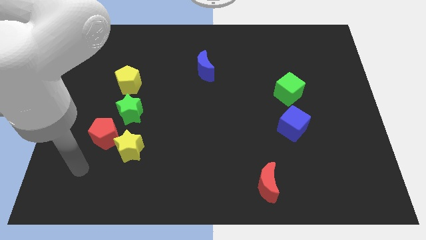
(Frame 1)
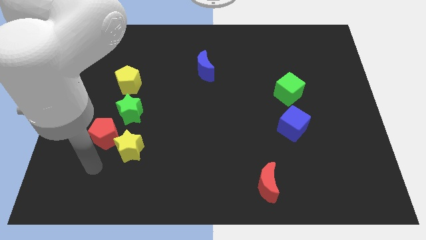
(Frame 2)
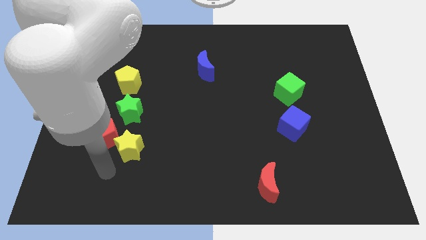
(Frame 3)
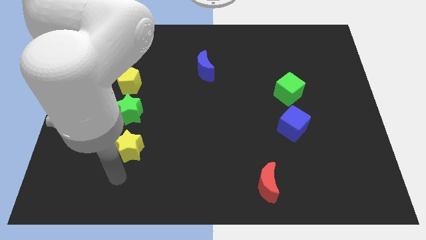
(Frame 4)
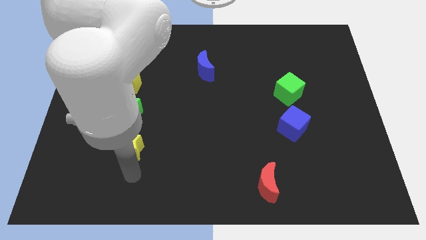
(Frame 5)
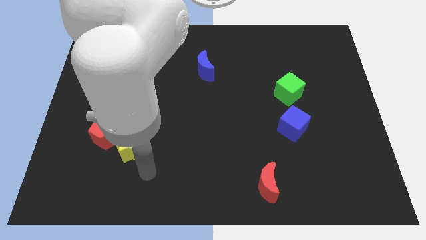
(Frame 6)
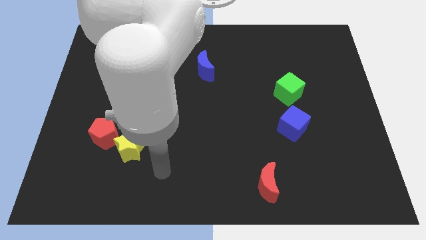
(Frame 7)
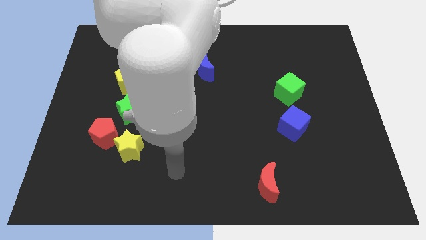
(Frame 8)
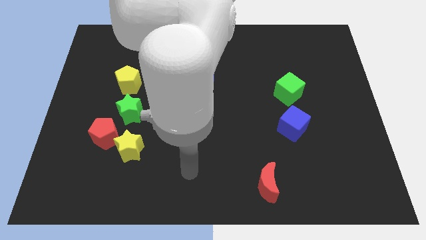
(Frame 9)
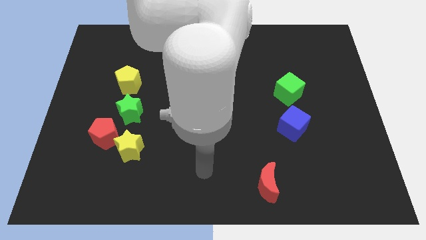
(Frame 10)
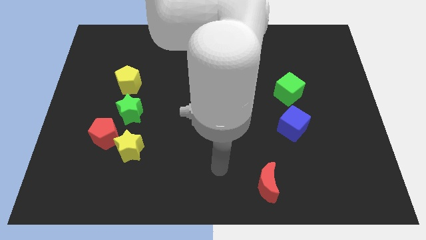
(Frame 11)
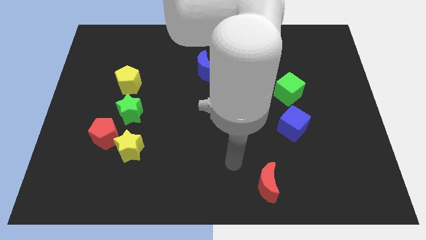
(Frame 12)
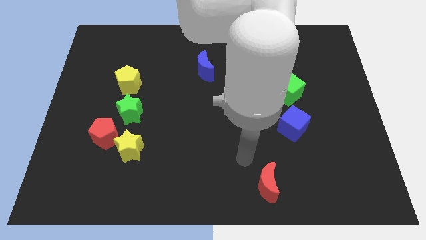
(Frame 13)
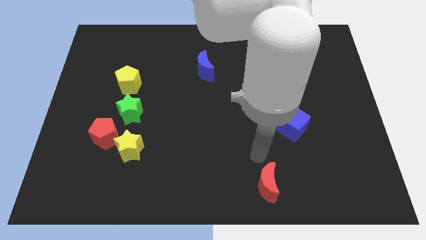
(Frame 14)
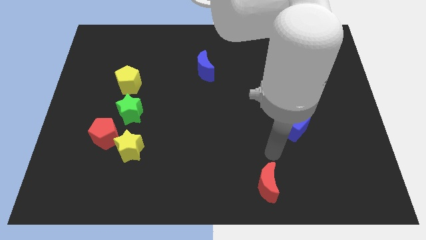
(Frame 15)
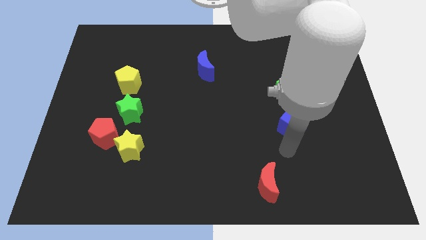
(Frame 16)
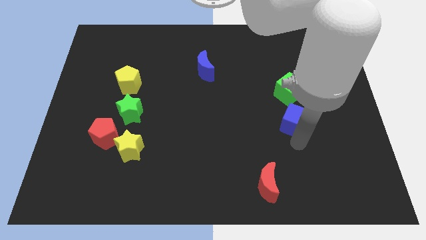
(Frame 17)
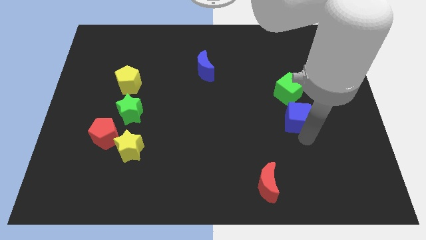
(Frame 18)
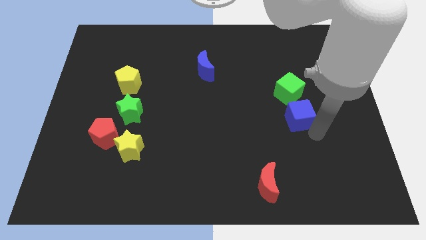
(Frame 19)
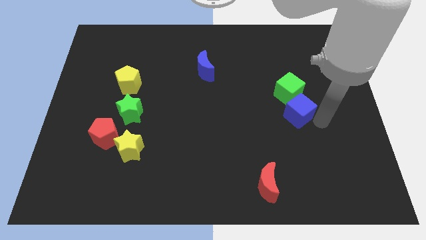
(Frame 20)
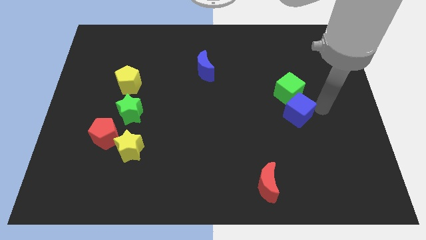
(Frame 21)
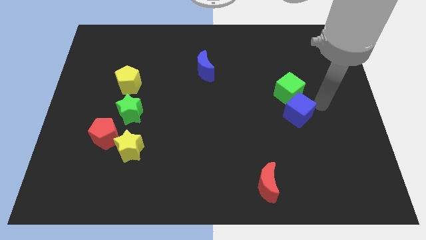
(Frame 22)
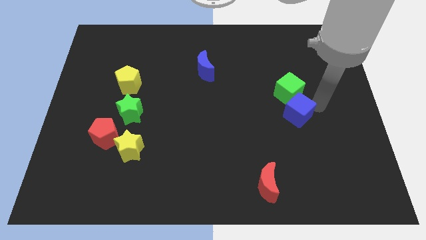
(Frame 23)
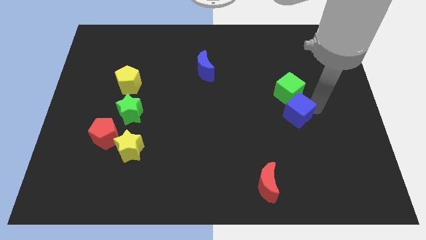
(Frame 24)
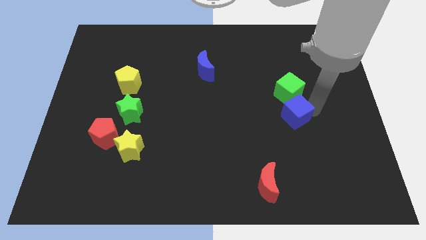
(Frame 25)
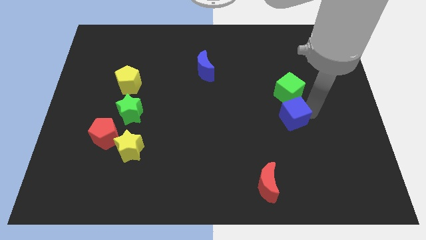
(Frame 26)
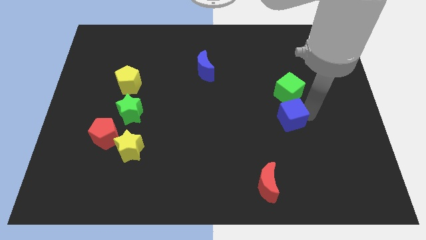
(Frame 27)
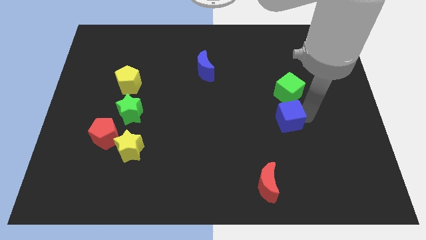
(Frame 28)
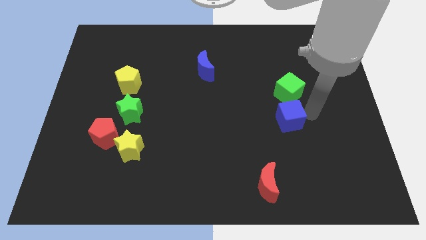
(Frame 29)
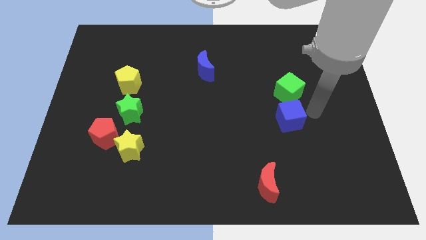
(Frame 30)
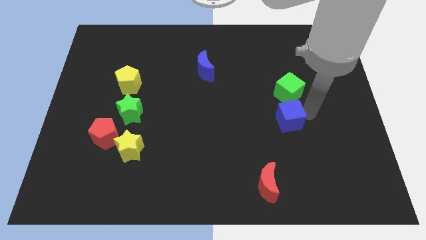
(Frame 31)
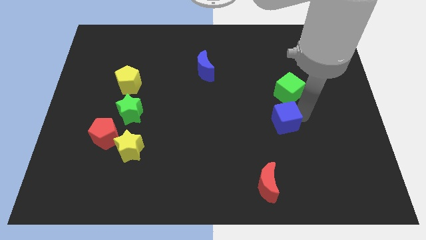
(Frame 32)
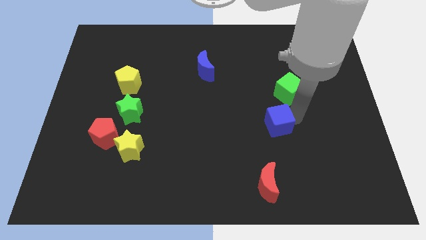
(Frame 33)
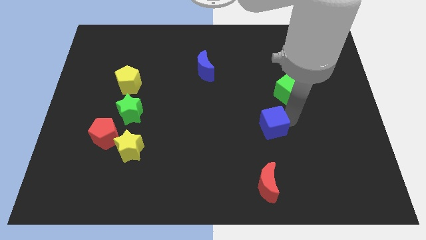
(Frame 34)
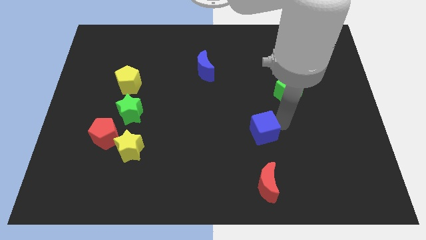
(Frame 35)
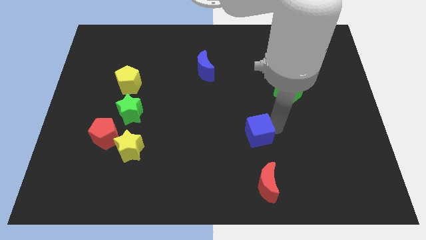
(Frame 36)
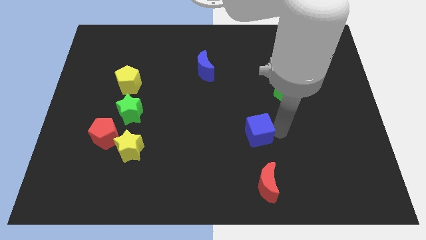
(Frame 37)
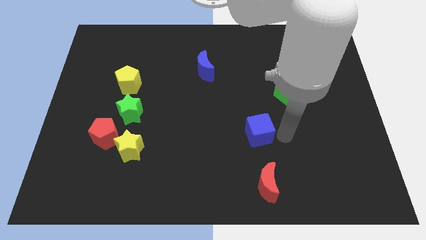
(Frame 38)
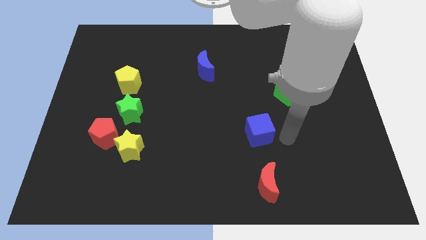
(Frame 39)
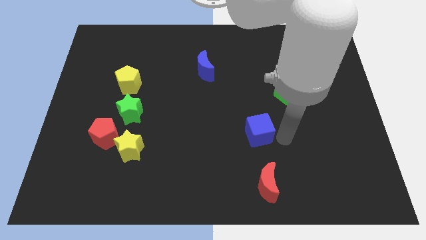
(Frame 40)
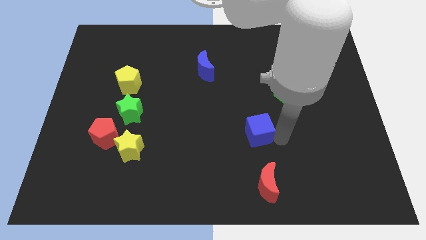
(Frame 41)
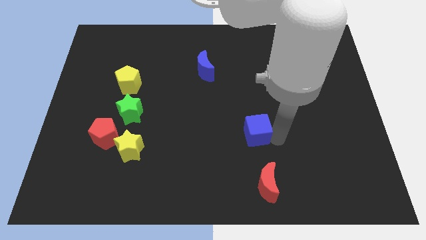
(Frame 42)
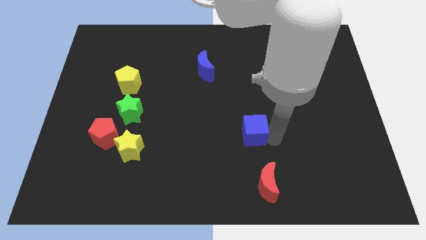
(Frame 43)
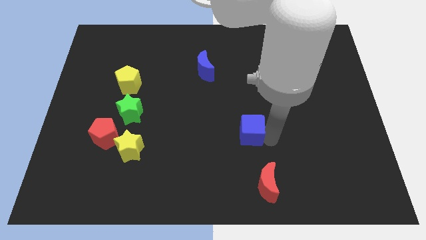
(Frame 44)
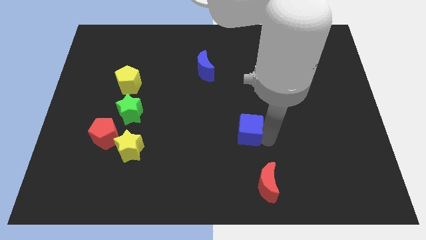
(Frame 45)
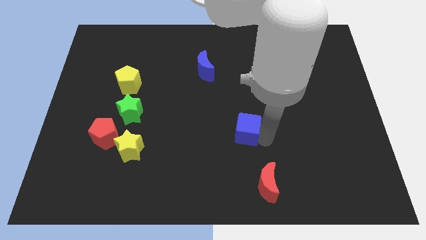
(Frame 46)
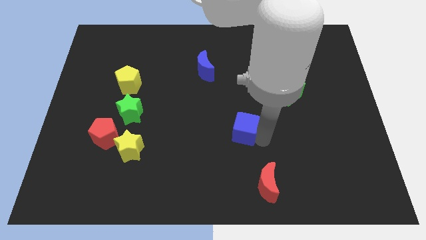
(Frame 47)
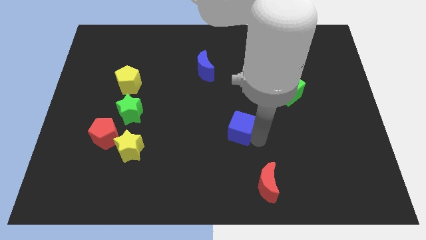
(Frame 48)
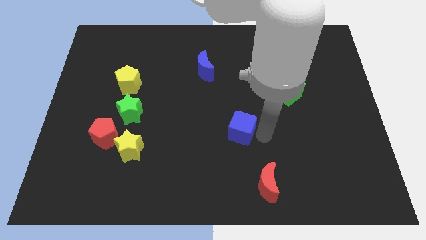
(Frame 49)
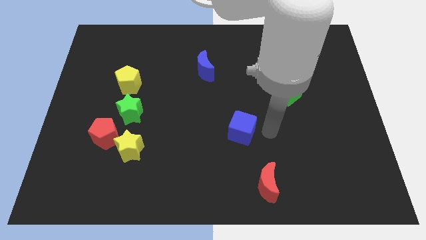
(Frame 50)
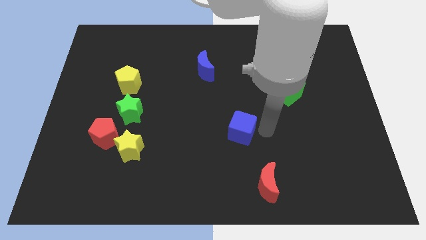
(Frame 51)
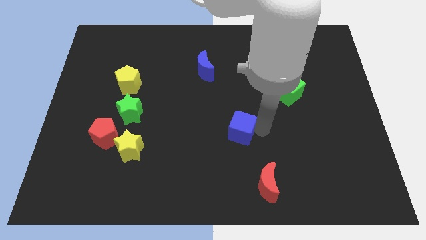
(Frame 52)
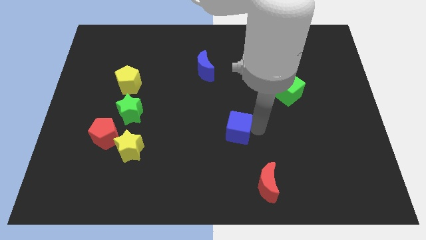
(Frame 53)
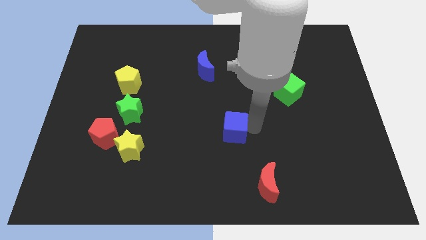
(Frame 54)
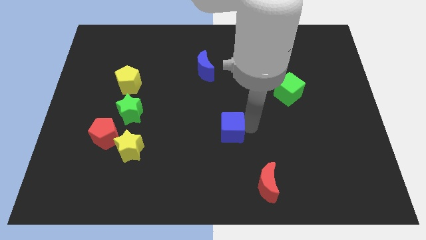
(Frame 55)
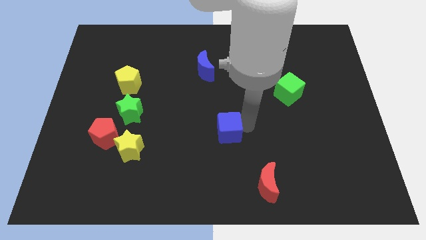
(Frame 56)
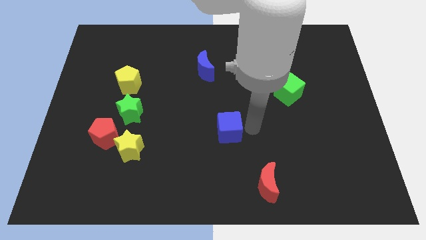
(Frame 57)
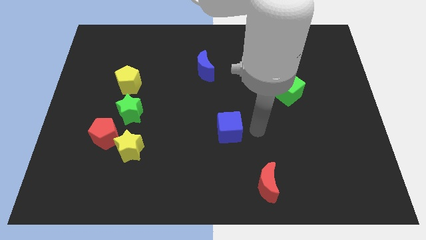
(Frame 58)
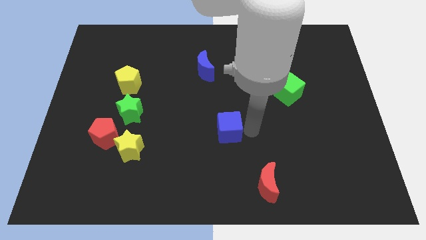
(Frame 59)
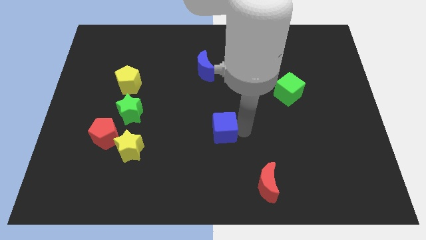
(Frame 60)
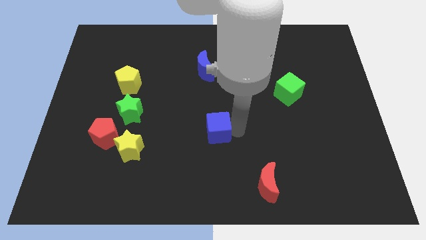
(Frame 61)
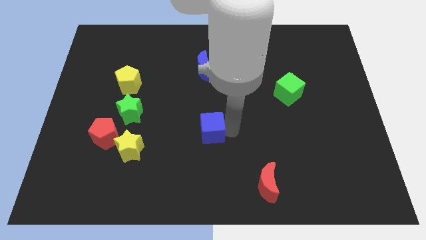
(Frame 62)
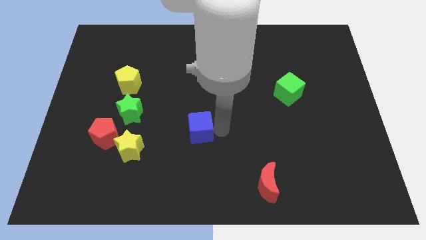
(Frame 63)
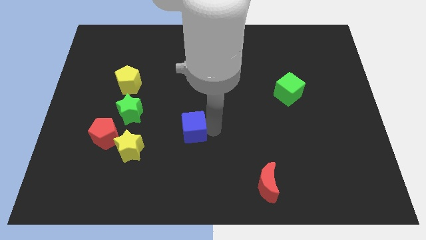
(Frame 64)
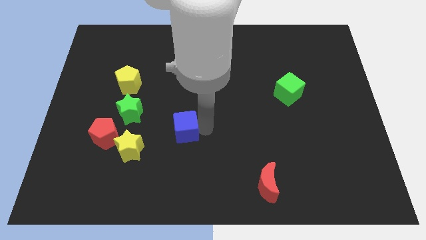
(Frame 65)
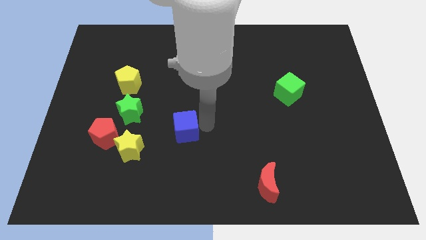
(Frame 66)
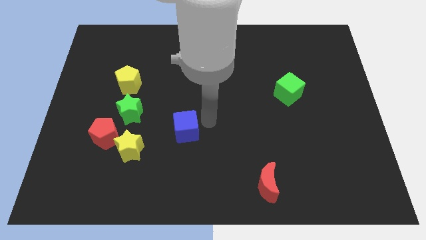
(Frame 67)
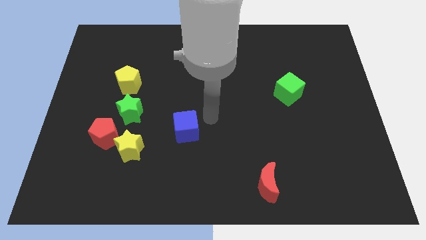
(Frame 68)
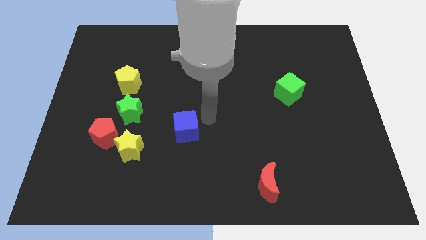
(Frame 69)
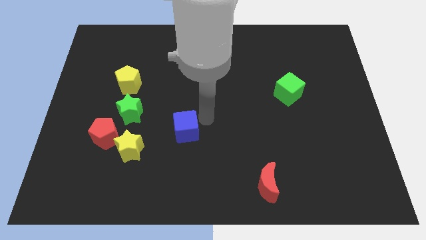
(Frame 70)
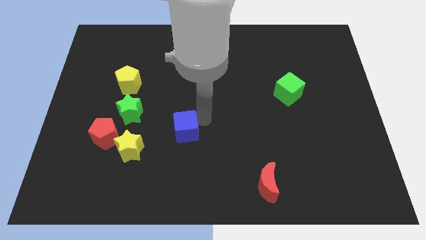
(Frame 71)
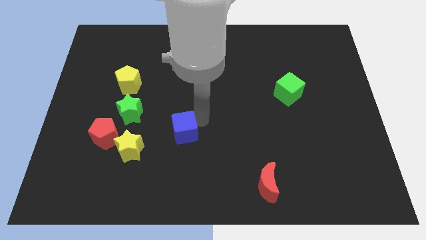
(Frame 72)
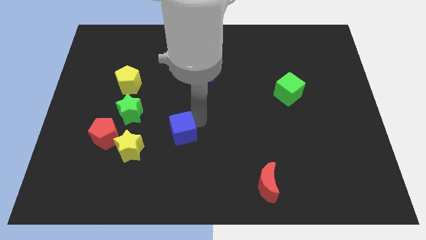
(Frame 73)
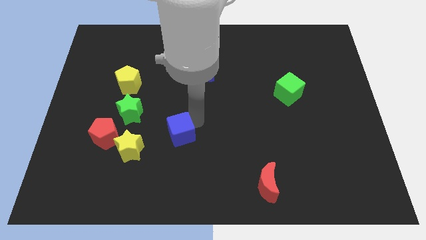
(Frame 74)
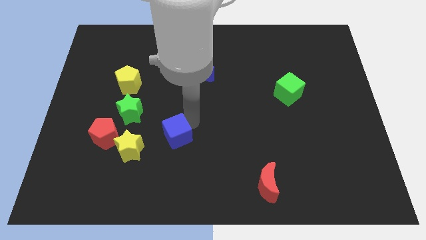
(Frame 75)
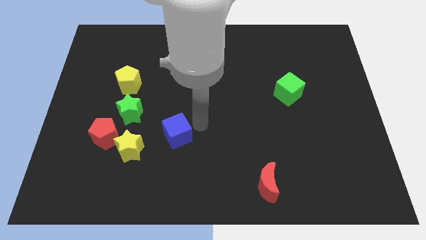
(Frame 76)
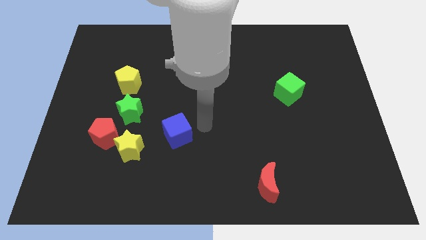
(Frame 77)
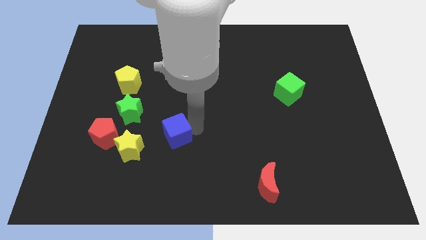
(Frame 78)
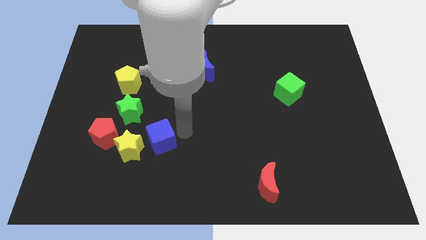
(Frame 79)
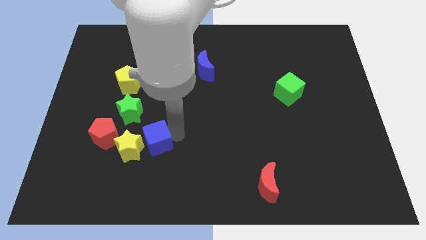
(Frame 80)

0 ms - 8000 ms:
move the blue cube towards the yellow star
